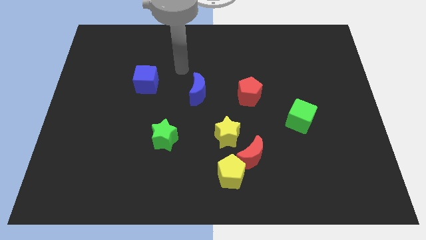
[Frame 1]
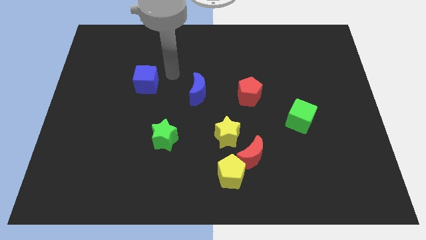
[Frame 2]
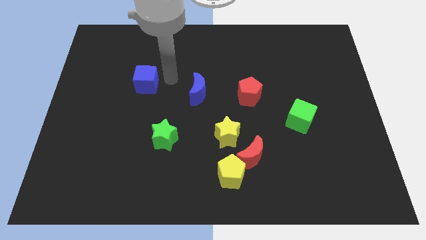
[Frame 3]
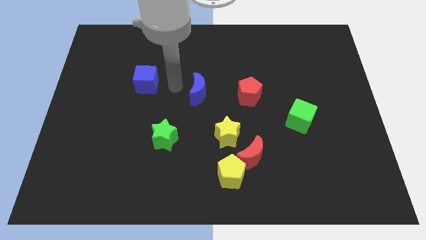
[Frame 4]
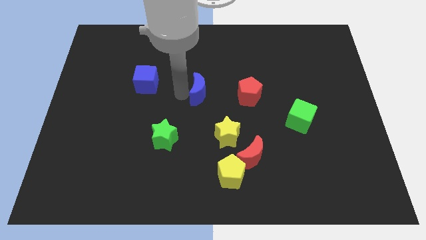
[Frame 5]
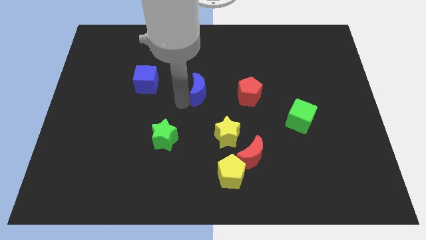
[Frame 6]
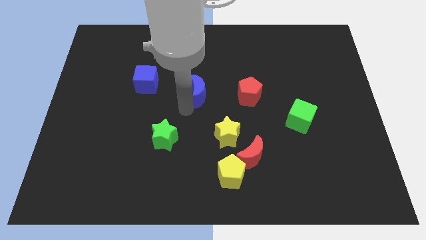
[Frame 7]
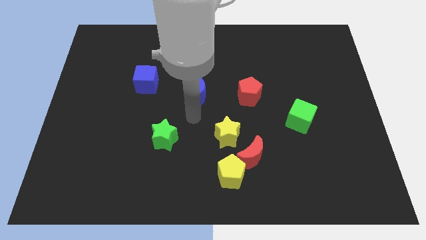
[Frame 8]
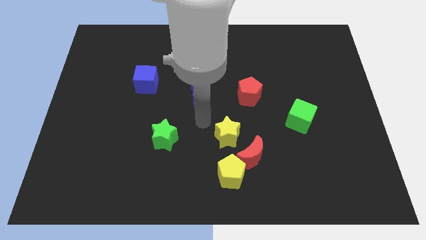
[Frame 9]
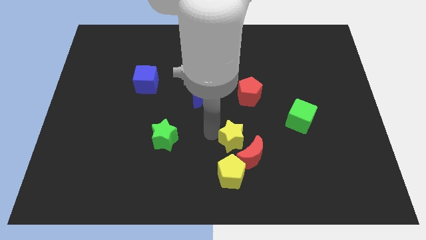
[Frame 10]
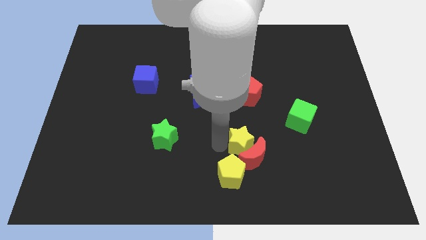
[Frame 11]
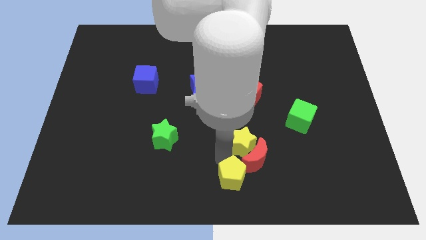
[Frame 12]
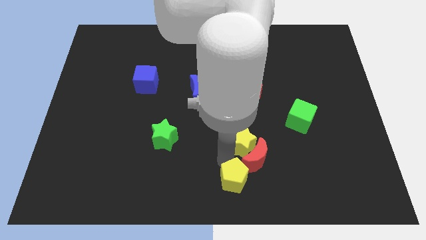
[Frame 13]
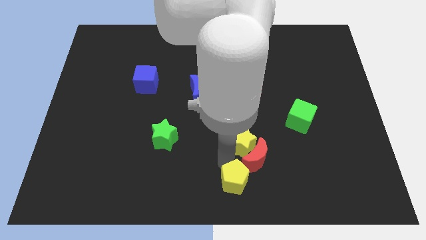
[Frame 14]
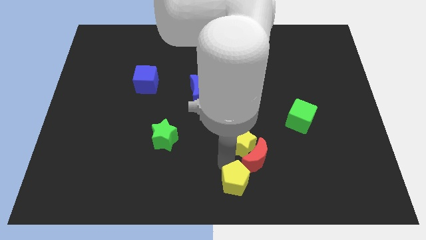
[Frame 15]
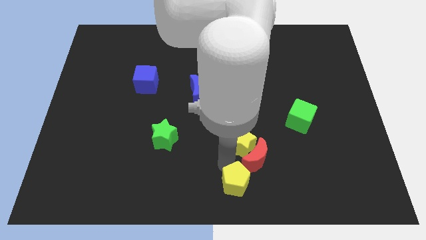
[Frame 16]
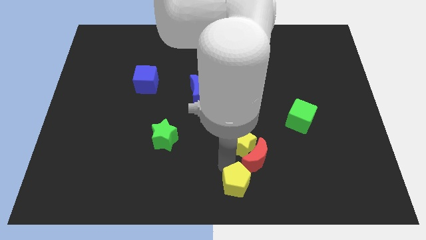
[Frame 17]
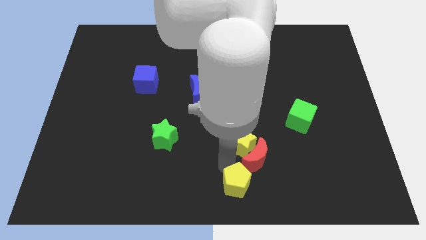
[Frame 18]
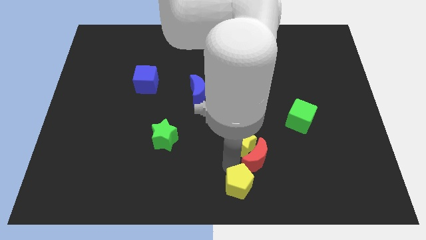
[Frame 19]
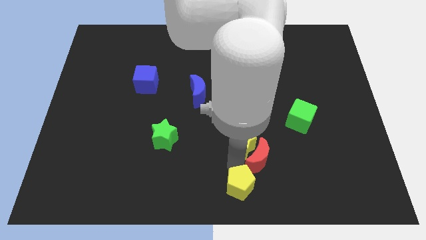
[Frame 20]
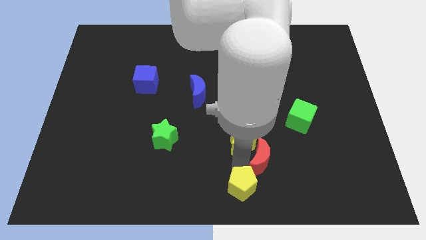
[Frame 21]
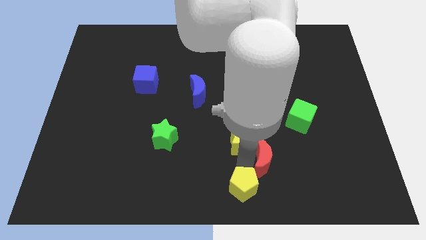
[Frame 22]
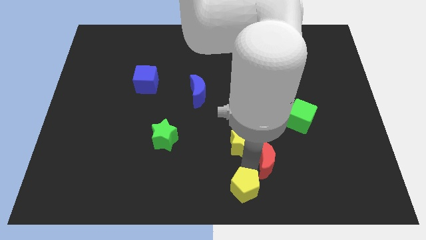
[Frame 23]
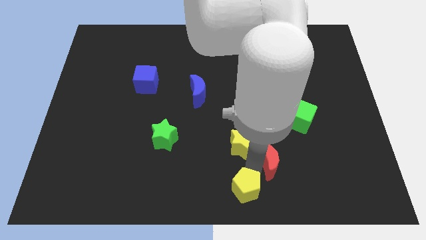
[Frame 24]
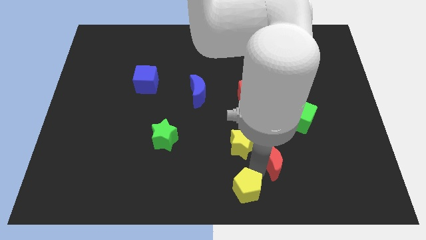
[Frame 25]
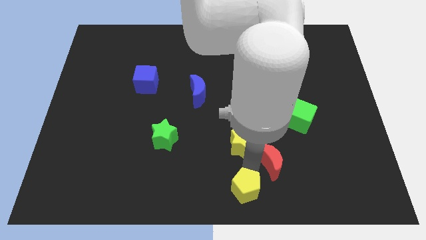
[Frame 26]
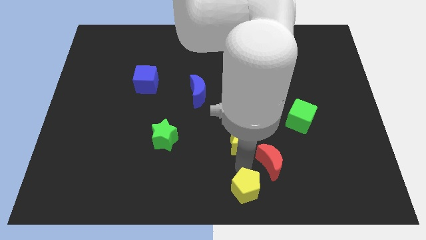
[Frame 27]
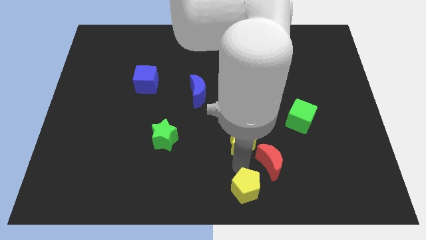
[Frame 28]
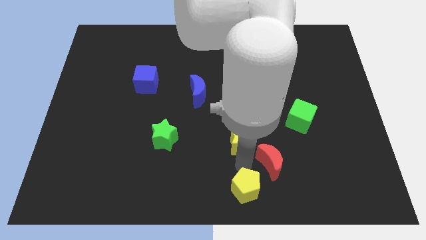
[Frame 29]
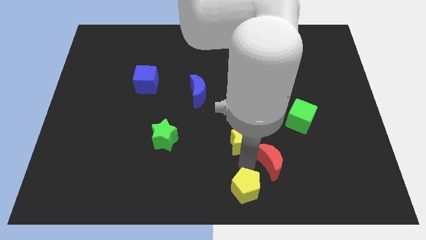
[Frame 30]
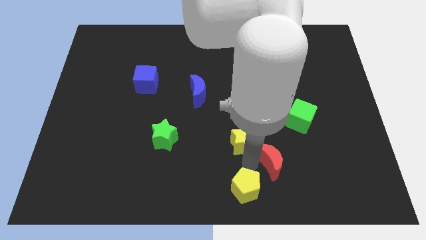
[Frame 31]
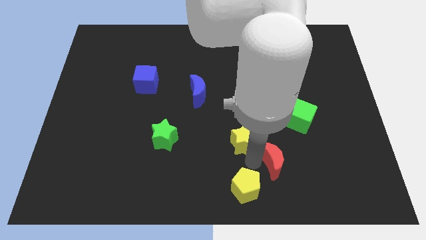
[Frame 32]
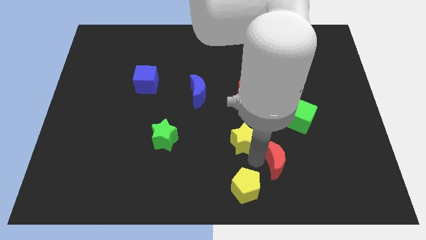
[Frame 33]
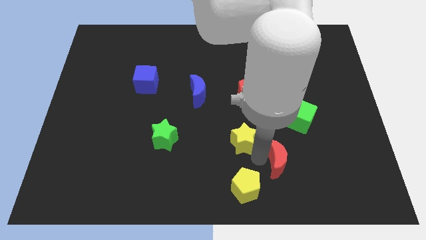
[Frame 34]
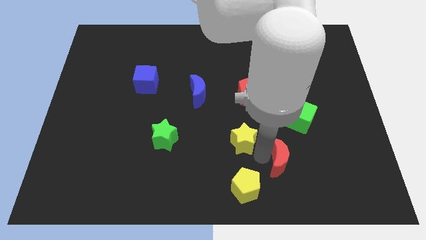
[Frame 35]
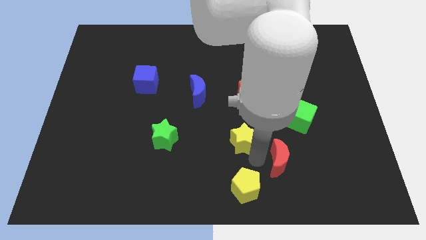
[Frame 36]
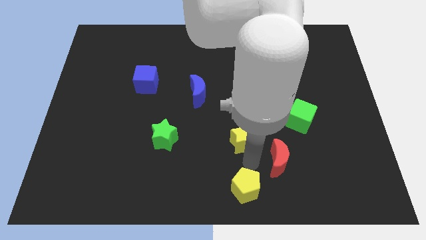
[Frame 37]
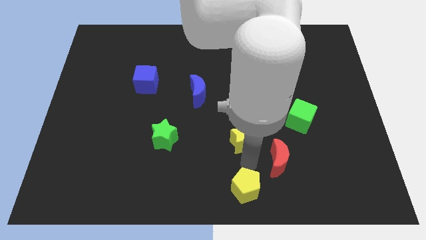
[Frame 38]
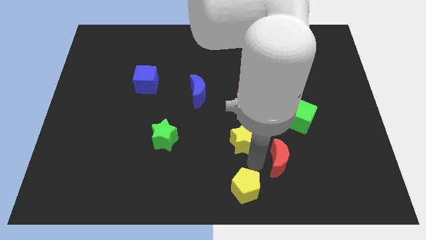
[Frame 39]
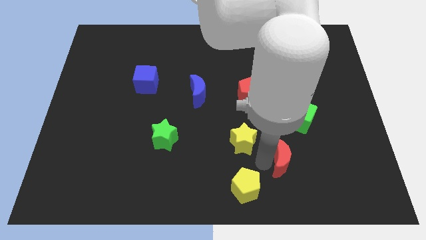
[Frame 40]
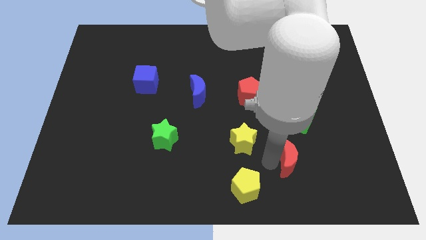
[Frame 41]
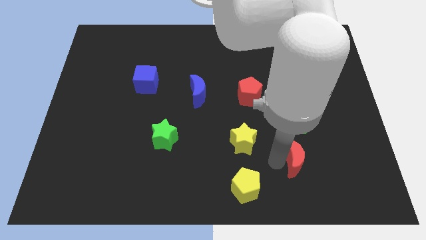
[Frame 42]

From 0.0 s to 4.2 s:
pull the red moon apart from the yellow pentagon and yellow star

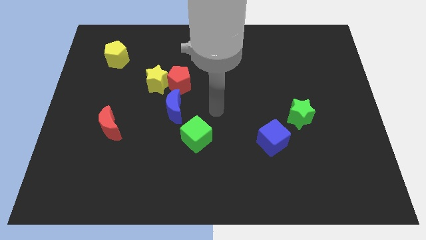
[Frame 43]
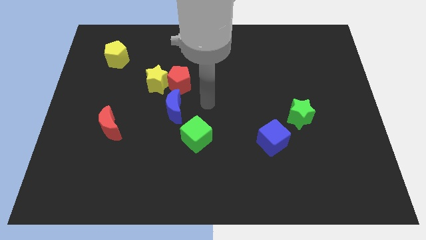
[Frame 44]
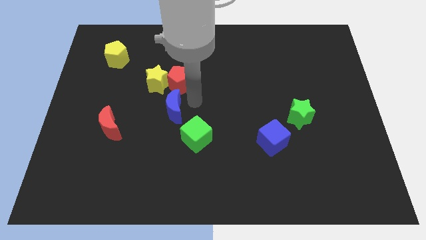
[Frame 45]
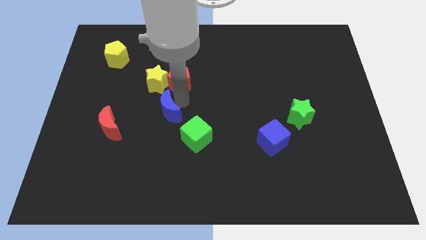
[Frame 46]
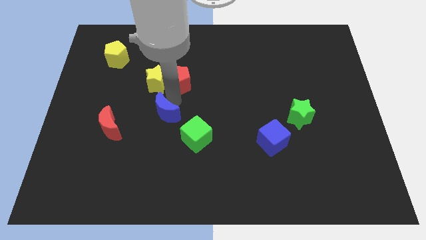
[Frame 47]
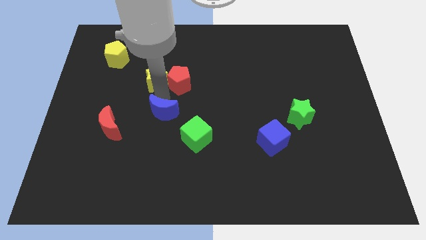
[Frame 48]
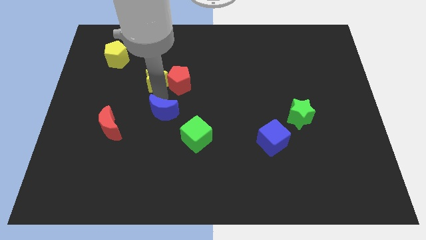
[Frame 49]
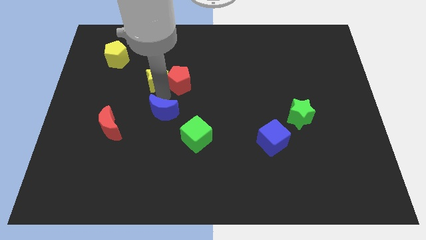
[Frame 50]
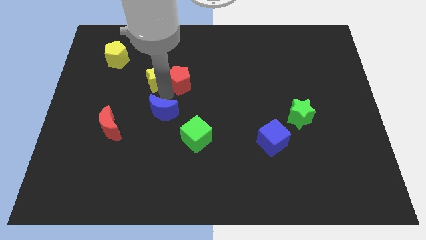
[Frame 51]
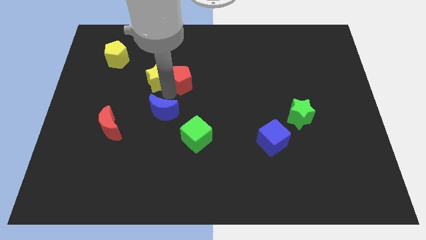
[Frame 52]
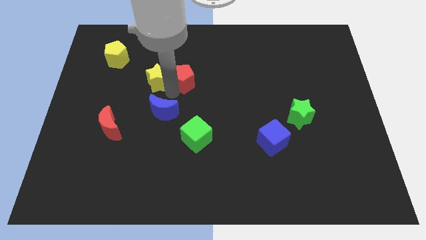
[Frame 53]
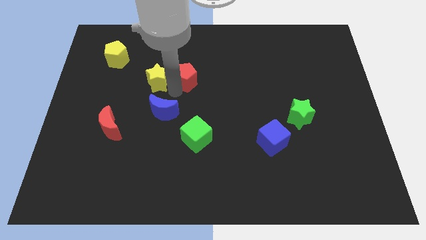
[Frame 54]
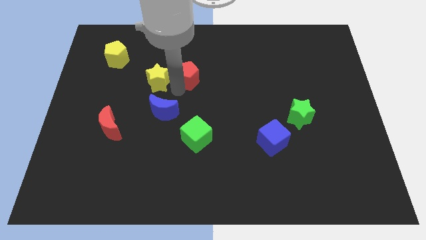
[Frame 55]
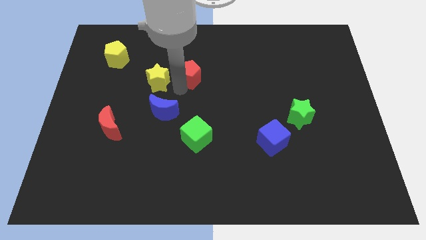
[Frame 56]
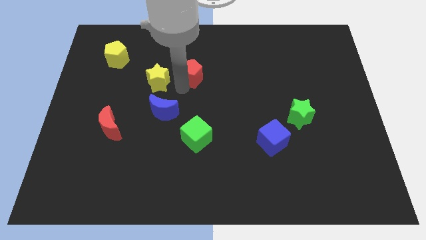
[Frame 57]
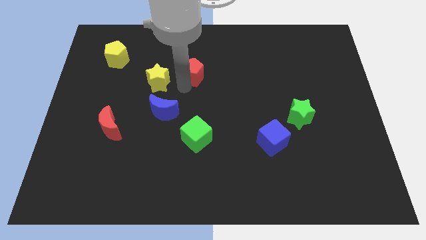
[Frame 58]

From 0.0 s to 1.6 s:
pull the red pentagon apart from the yellow star and blue moon

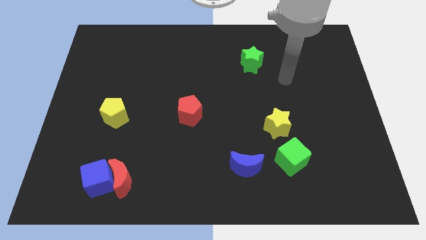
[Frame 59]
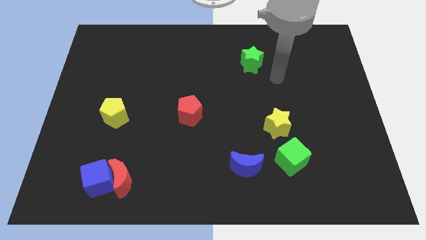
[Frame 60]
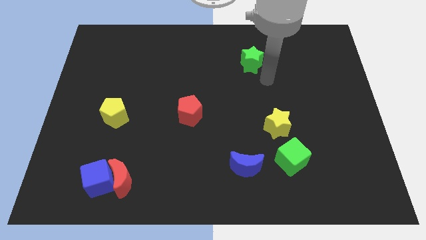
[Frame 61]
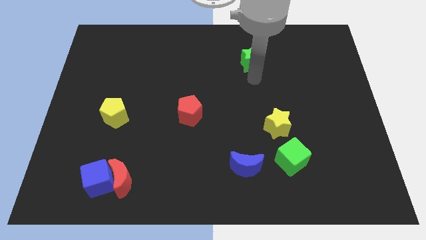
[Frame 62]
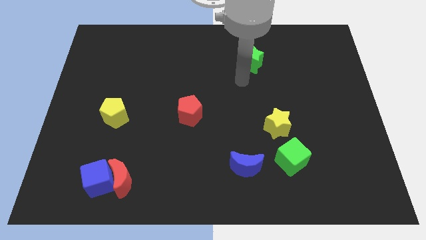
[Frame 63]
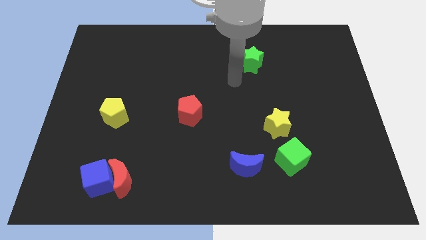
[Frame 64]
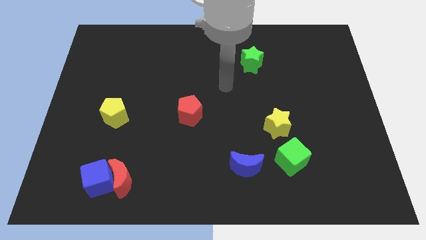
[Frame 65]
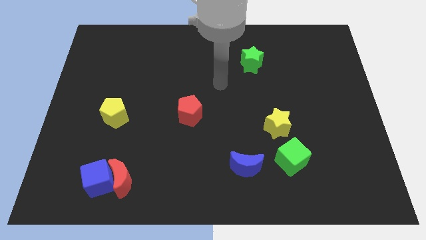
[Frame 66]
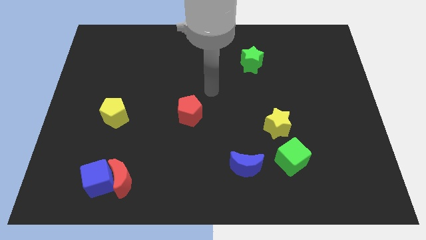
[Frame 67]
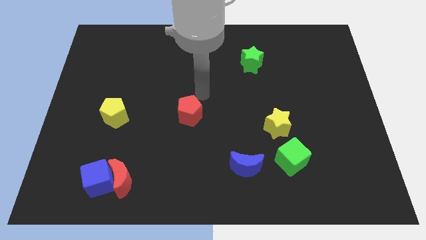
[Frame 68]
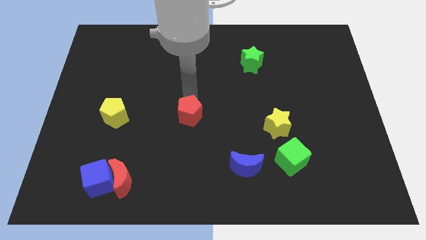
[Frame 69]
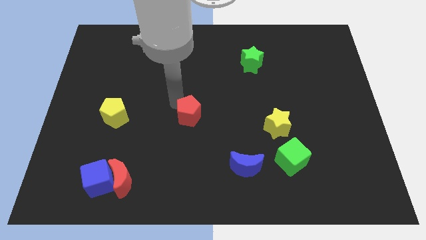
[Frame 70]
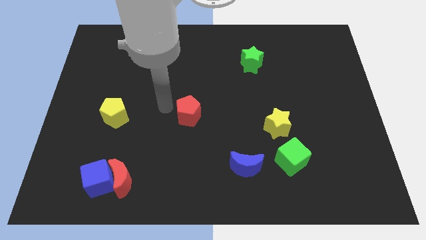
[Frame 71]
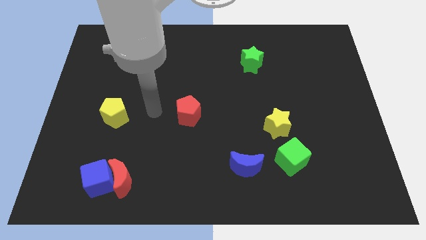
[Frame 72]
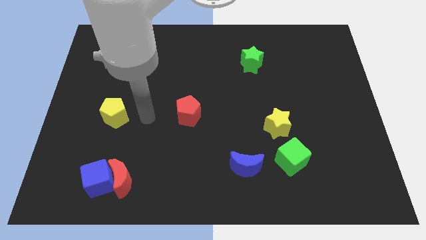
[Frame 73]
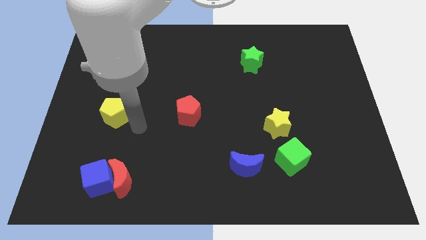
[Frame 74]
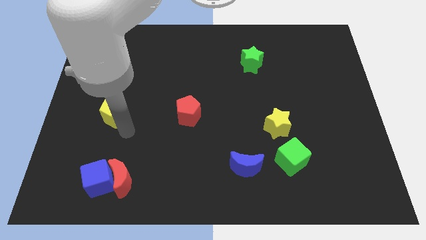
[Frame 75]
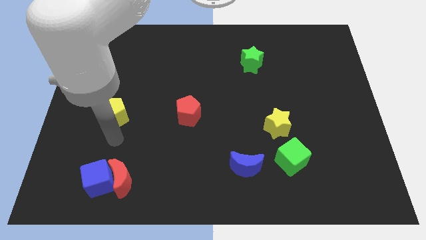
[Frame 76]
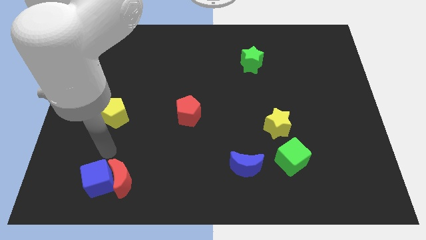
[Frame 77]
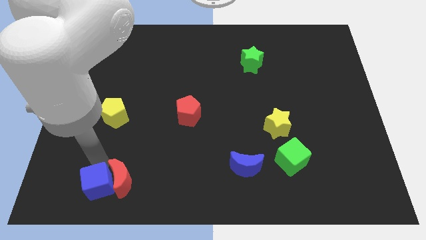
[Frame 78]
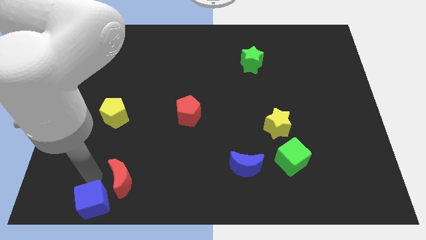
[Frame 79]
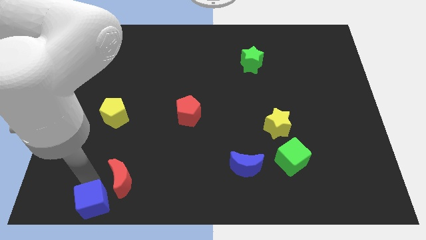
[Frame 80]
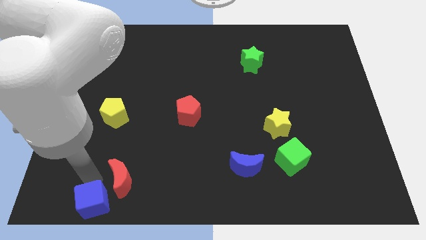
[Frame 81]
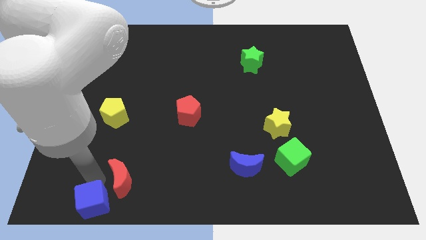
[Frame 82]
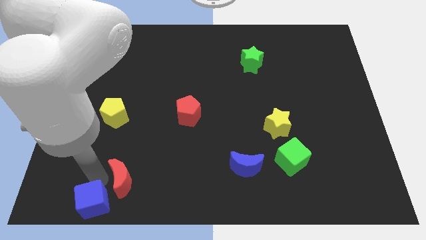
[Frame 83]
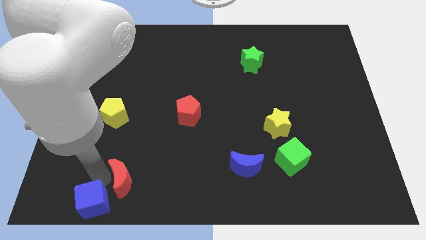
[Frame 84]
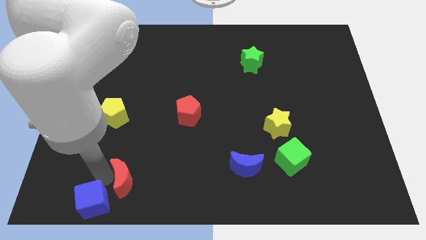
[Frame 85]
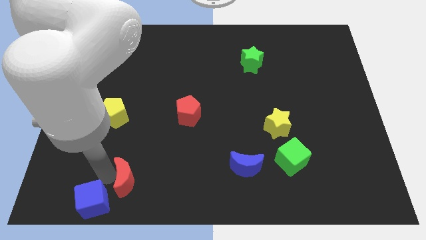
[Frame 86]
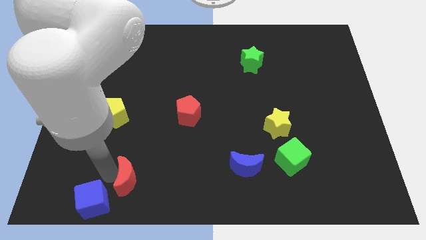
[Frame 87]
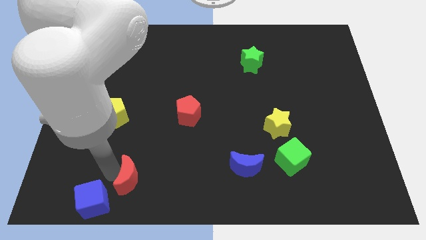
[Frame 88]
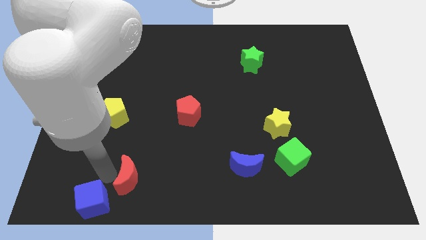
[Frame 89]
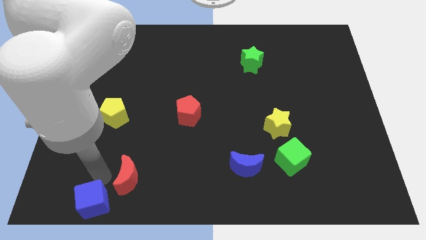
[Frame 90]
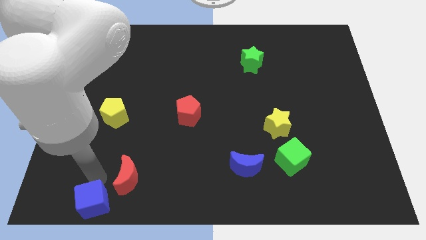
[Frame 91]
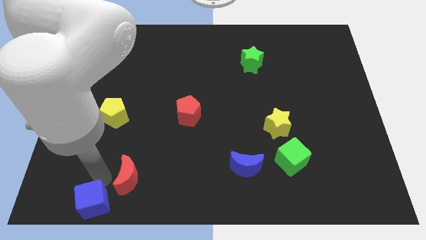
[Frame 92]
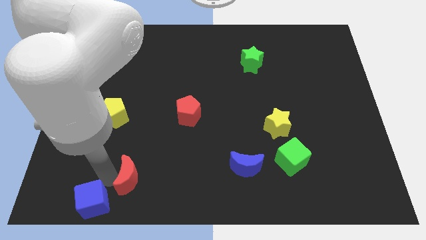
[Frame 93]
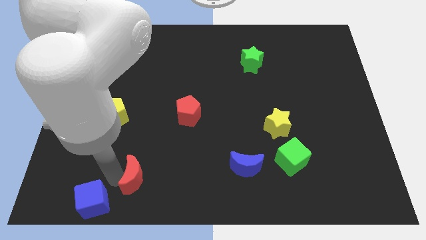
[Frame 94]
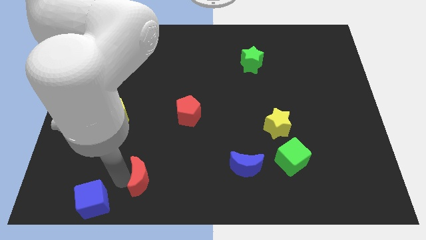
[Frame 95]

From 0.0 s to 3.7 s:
pull the red moon apart from the blue cube
